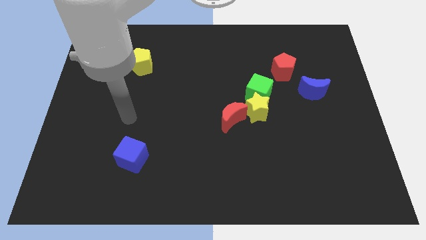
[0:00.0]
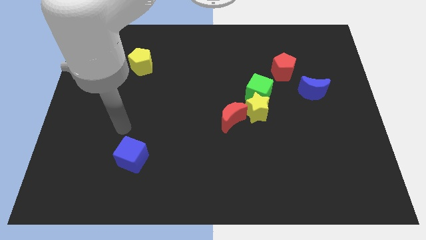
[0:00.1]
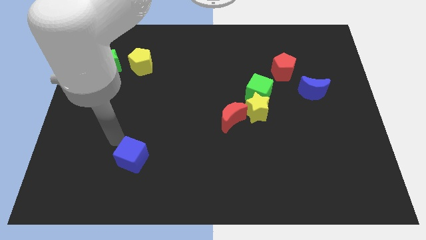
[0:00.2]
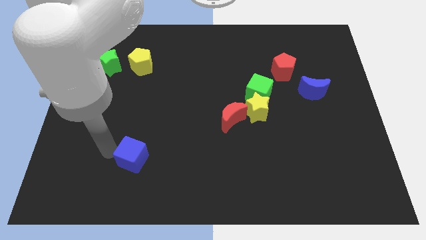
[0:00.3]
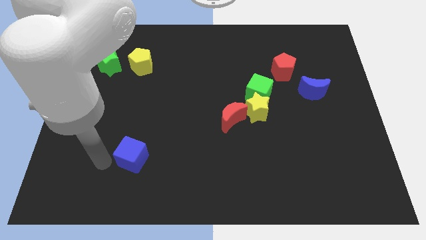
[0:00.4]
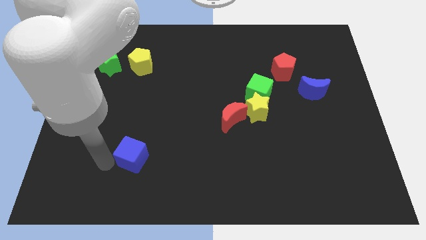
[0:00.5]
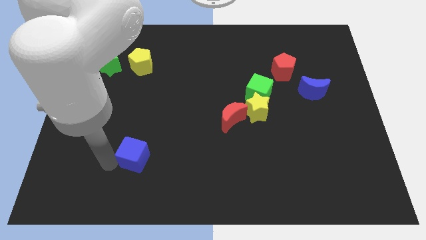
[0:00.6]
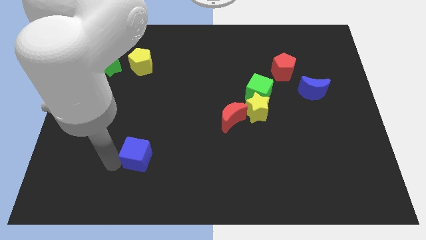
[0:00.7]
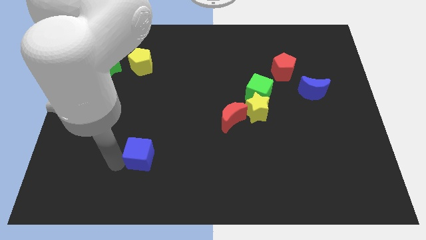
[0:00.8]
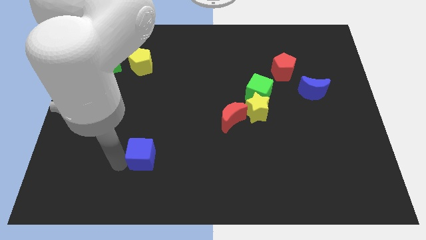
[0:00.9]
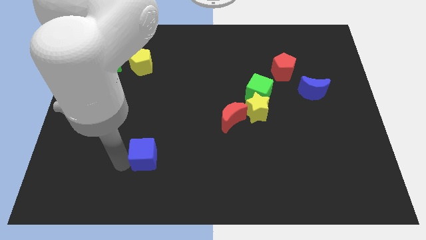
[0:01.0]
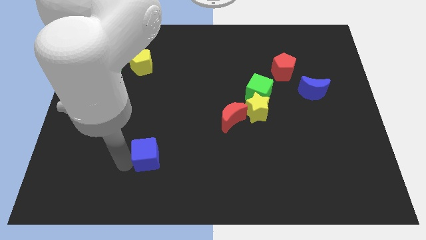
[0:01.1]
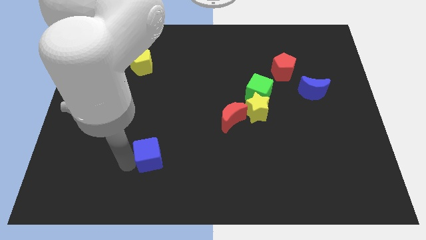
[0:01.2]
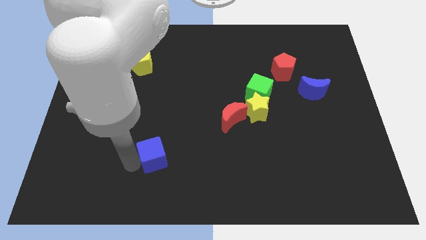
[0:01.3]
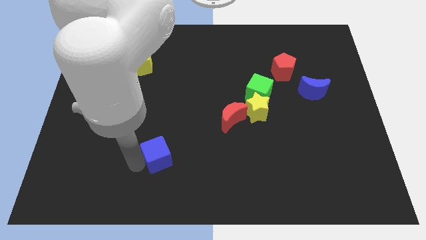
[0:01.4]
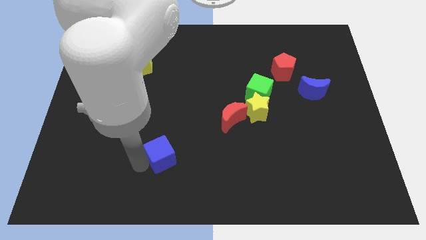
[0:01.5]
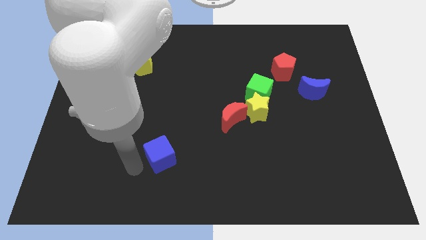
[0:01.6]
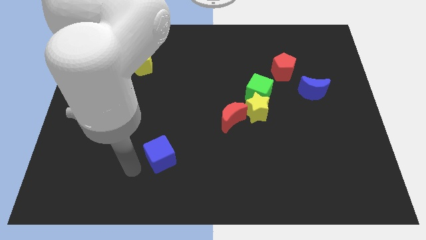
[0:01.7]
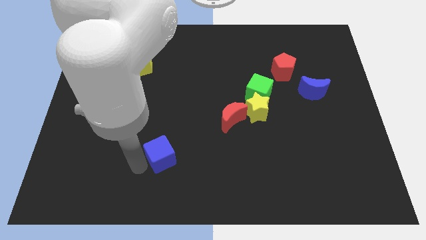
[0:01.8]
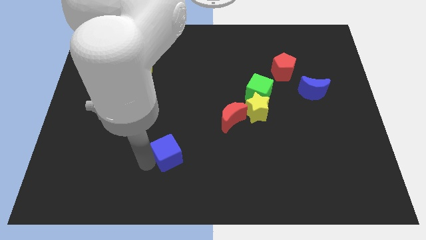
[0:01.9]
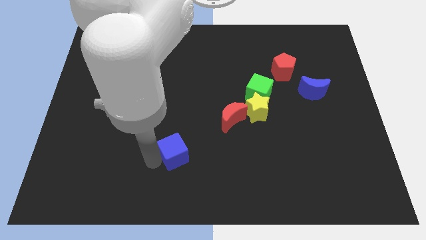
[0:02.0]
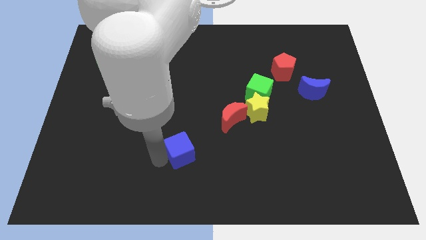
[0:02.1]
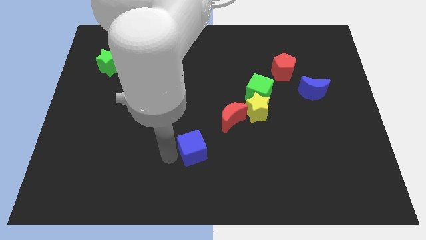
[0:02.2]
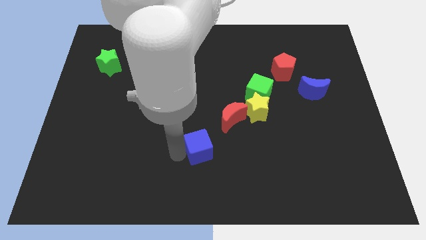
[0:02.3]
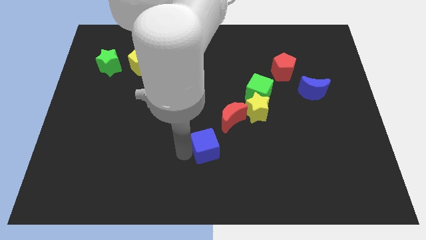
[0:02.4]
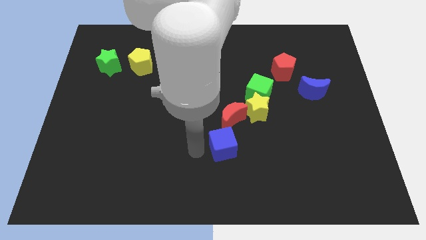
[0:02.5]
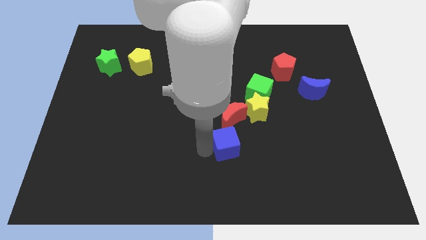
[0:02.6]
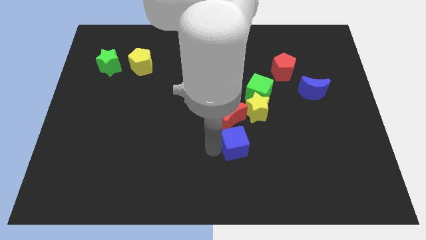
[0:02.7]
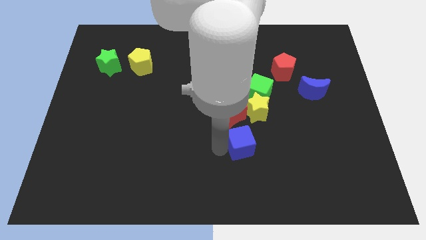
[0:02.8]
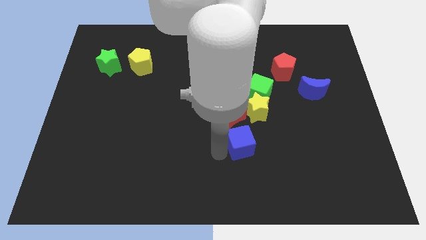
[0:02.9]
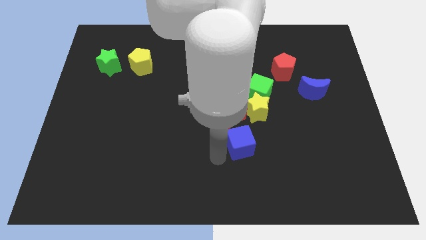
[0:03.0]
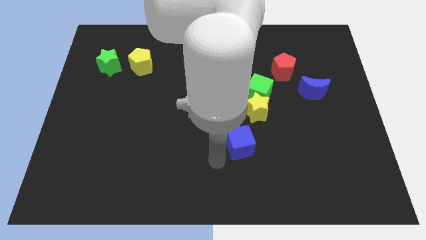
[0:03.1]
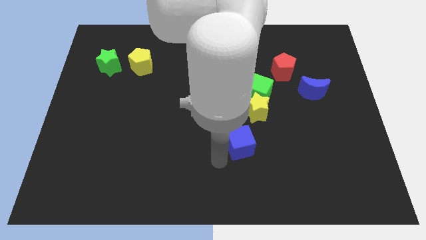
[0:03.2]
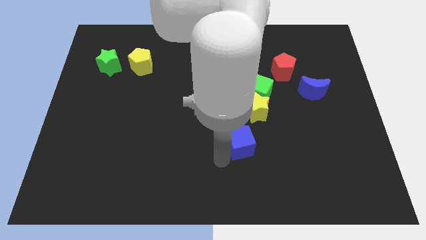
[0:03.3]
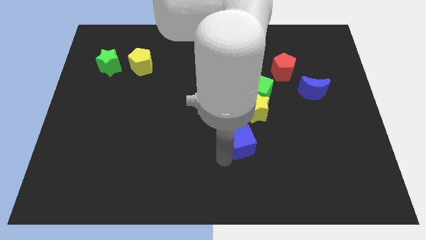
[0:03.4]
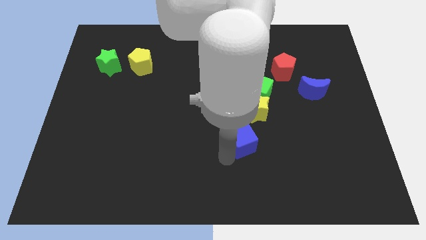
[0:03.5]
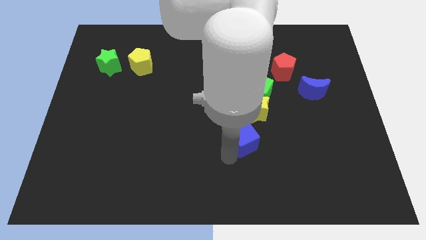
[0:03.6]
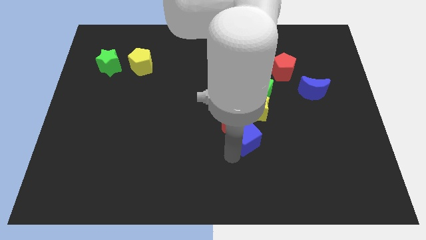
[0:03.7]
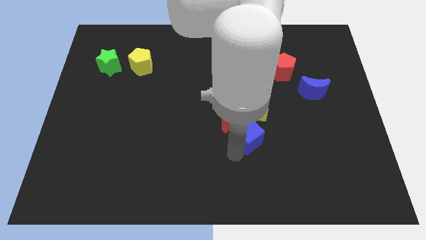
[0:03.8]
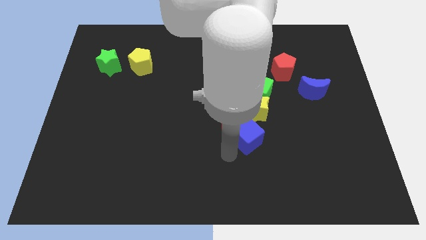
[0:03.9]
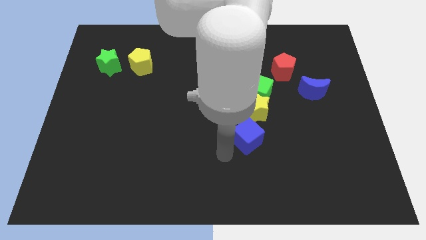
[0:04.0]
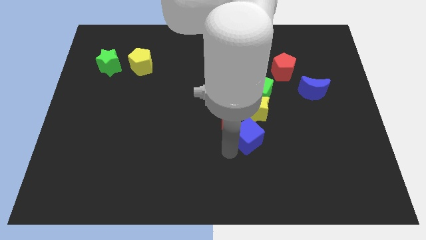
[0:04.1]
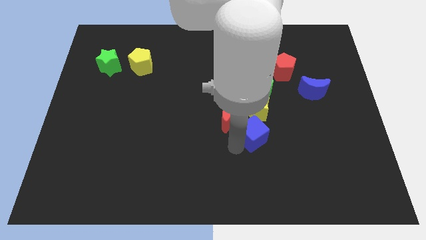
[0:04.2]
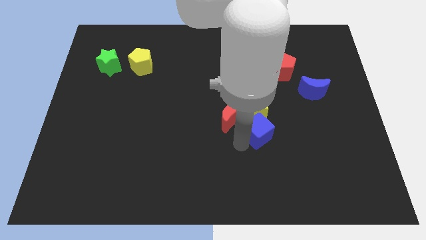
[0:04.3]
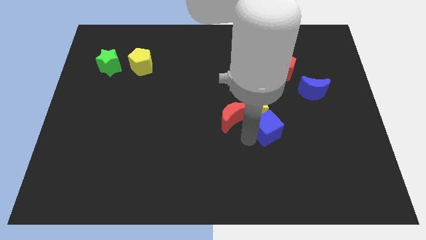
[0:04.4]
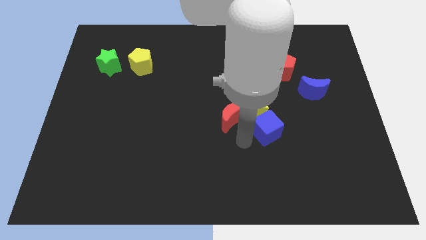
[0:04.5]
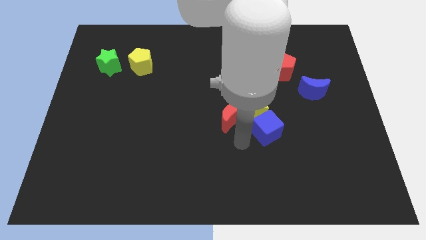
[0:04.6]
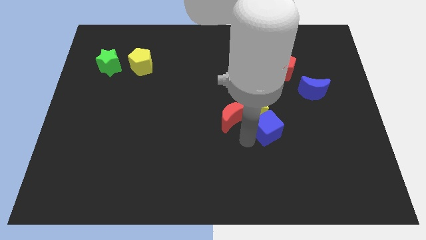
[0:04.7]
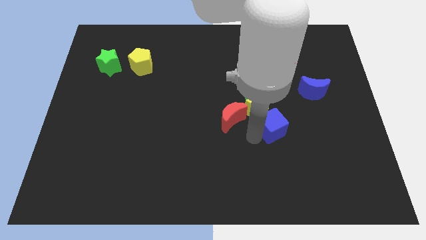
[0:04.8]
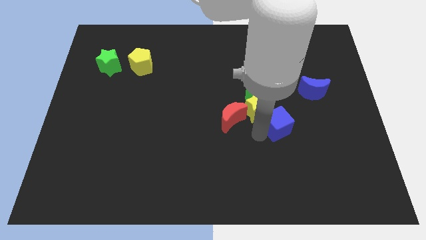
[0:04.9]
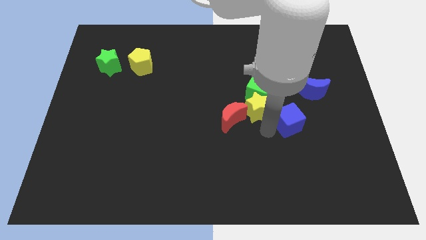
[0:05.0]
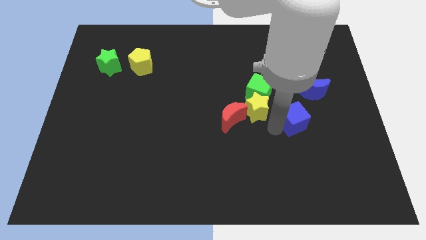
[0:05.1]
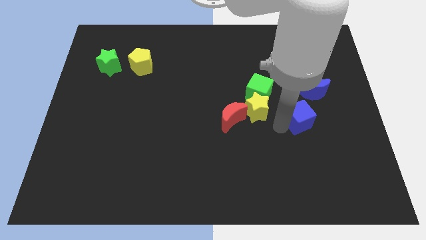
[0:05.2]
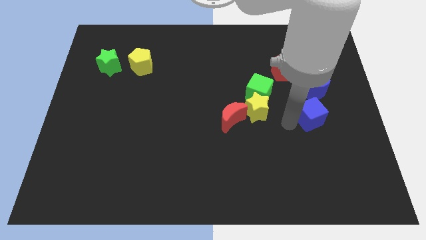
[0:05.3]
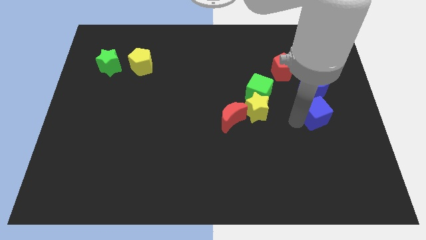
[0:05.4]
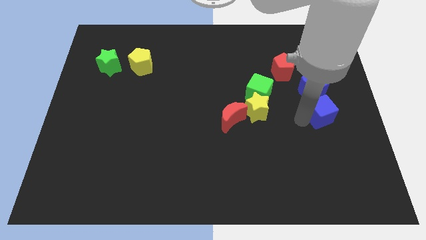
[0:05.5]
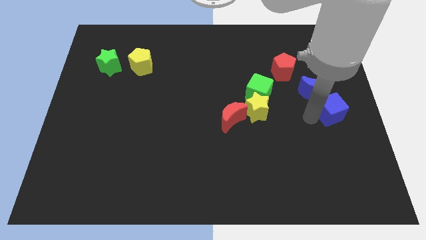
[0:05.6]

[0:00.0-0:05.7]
move the blue cube to the right side of the board
